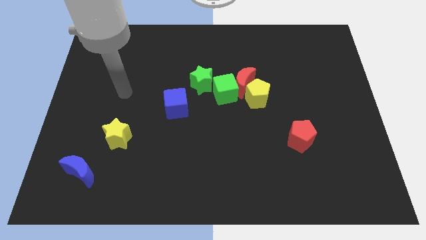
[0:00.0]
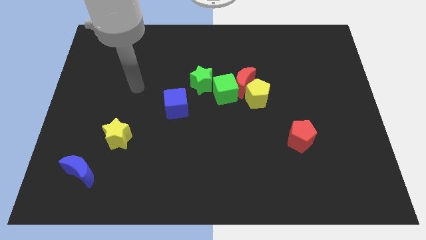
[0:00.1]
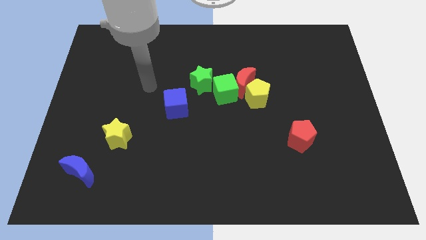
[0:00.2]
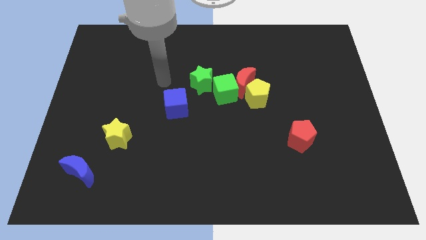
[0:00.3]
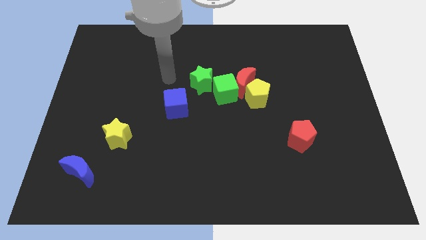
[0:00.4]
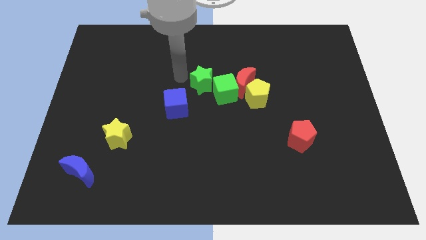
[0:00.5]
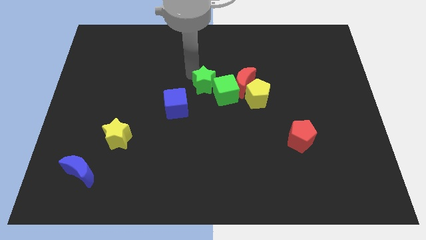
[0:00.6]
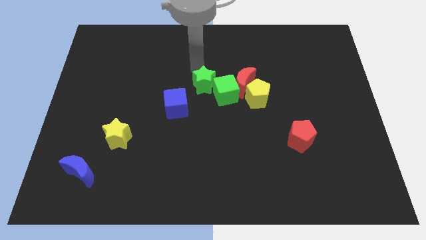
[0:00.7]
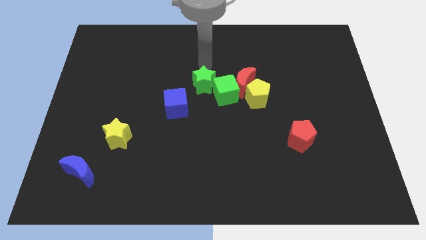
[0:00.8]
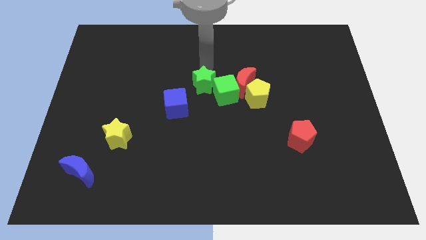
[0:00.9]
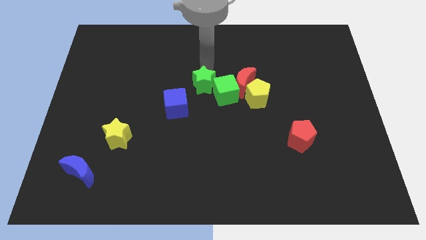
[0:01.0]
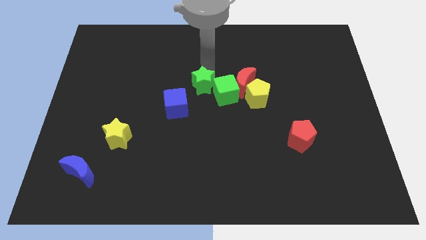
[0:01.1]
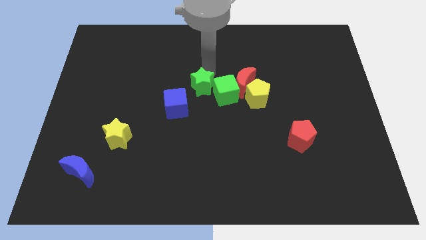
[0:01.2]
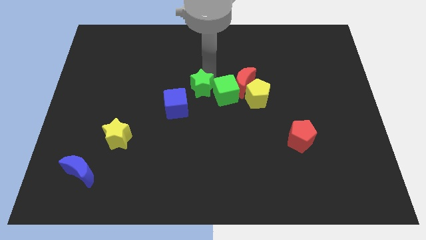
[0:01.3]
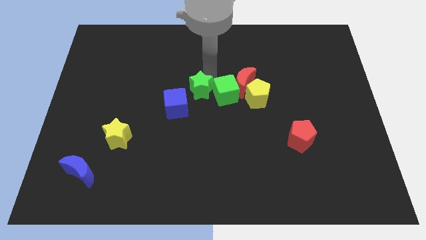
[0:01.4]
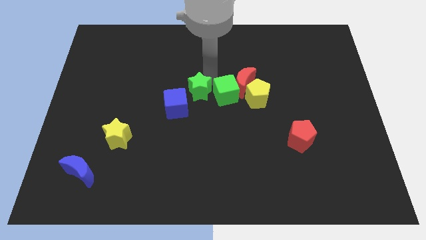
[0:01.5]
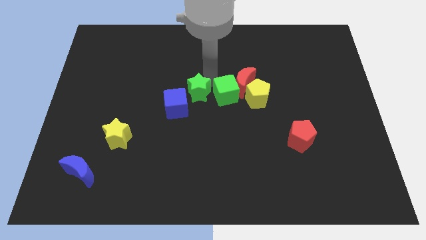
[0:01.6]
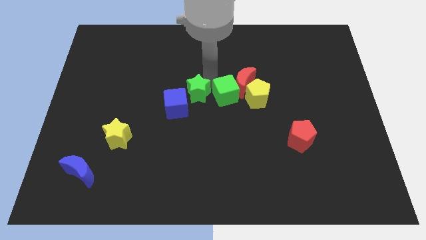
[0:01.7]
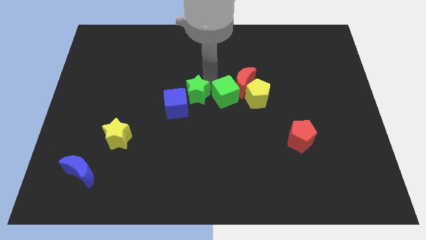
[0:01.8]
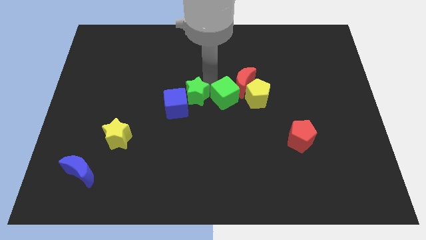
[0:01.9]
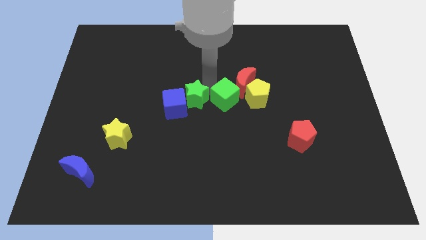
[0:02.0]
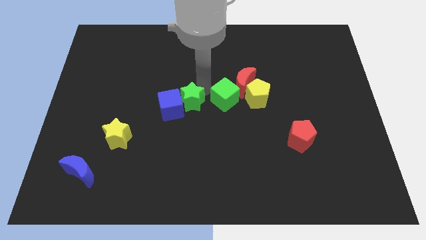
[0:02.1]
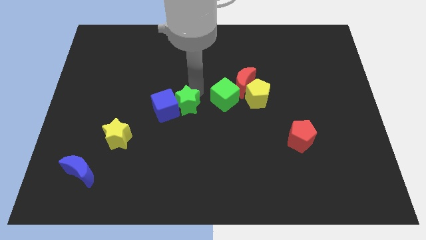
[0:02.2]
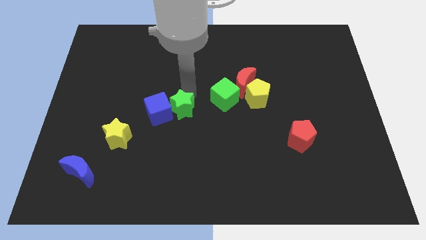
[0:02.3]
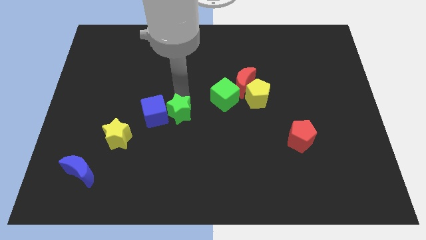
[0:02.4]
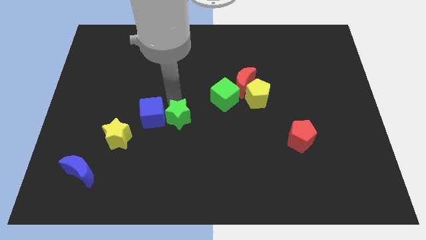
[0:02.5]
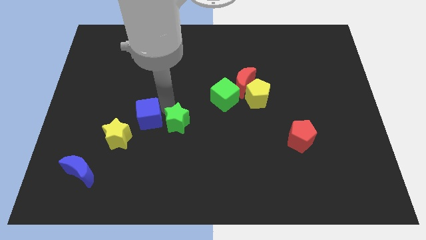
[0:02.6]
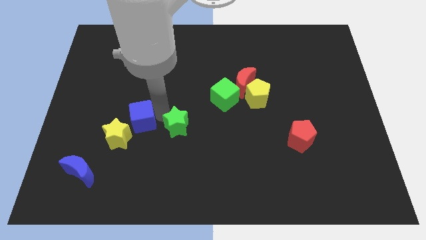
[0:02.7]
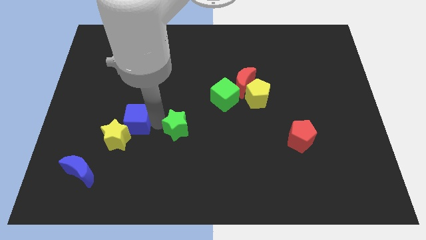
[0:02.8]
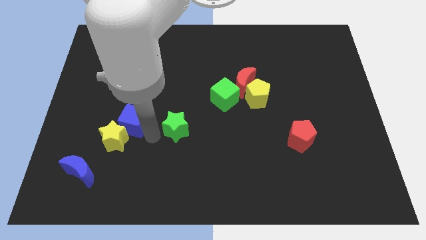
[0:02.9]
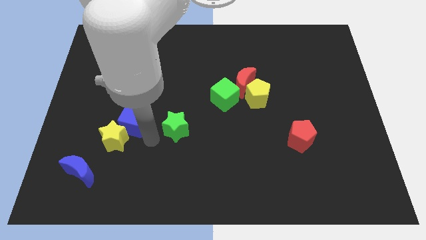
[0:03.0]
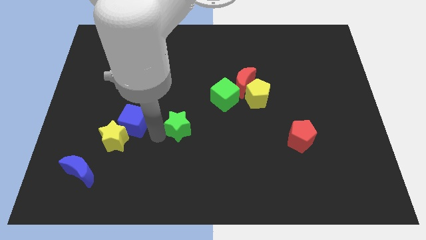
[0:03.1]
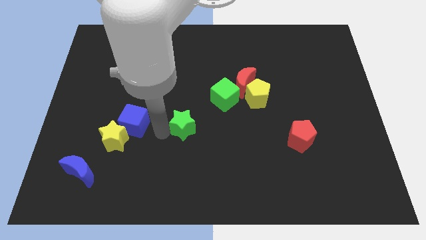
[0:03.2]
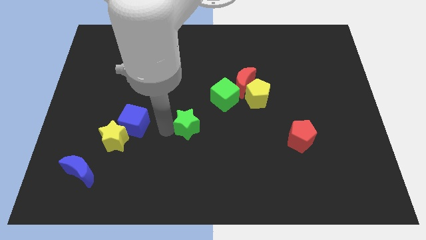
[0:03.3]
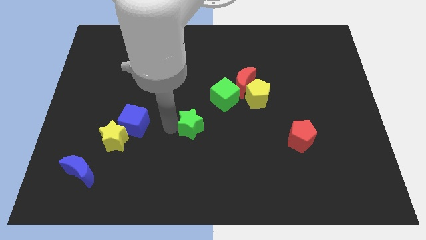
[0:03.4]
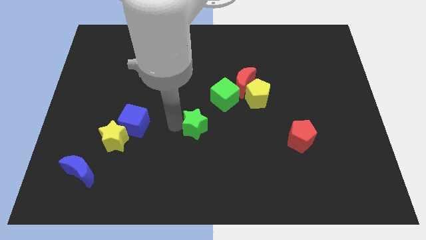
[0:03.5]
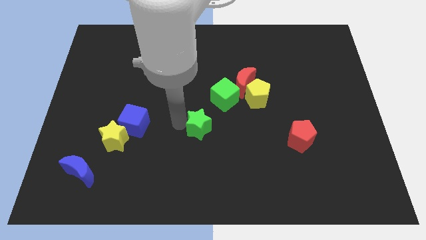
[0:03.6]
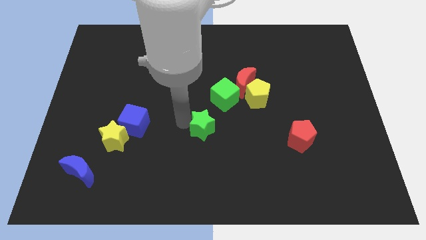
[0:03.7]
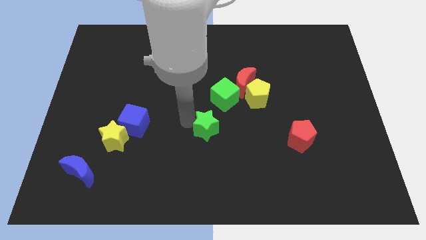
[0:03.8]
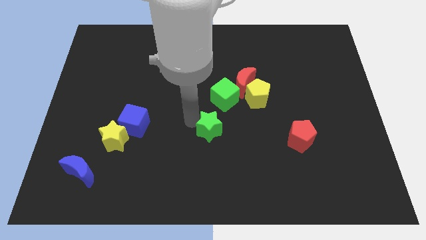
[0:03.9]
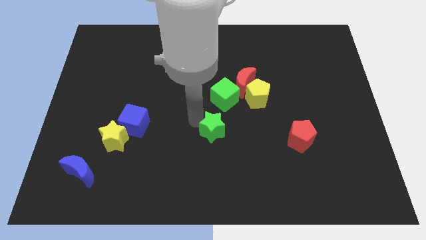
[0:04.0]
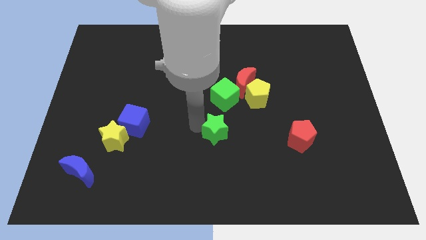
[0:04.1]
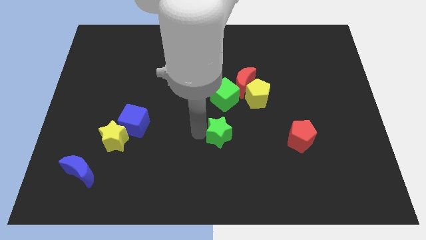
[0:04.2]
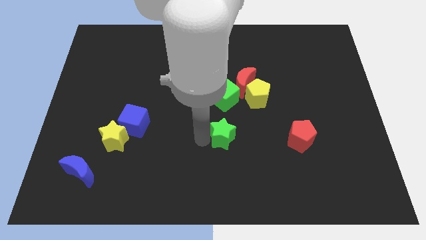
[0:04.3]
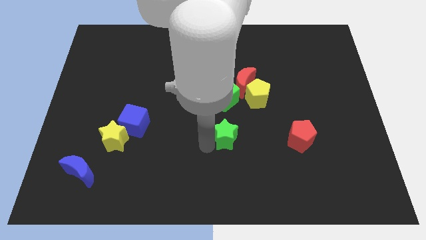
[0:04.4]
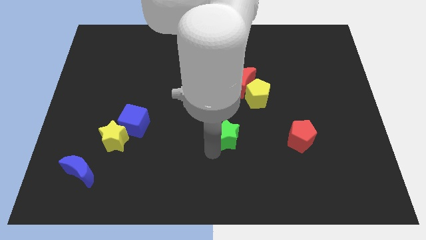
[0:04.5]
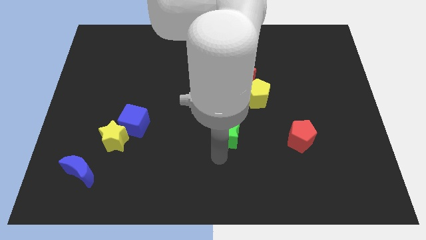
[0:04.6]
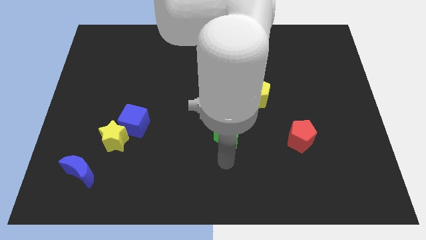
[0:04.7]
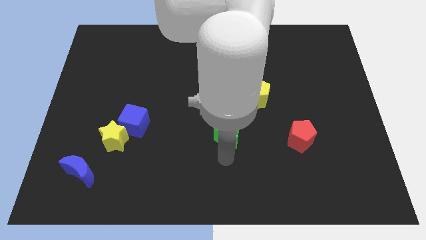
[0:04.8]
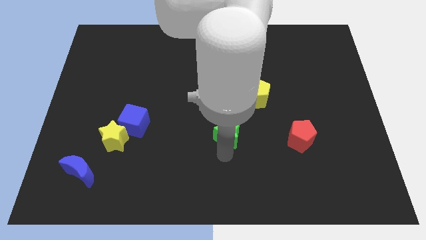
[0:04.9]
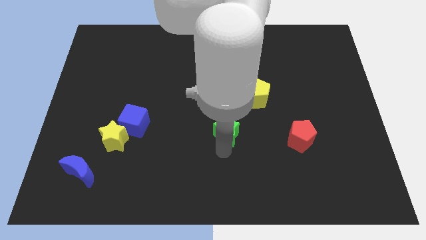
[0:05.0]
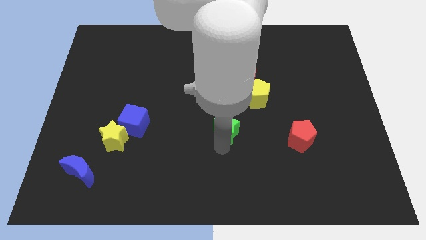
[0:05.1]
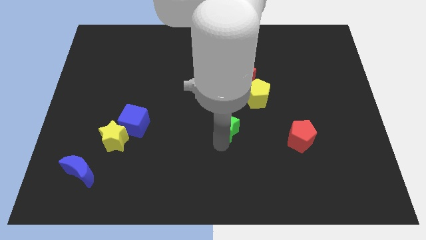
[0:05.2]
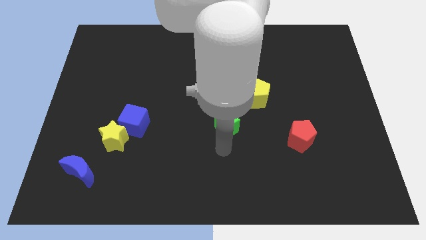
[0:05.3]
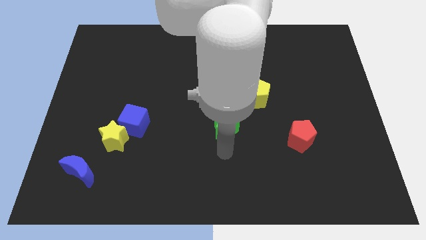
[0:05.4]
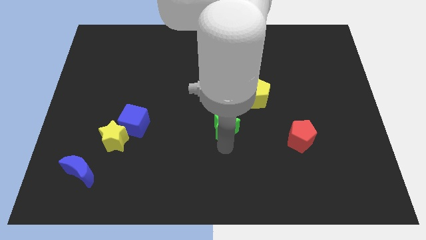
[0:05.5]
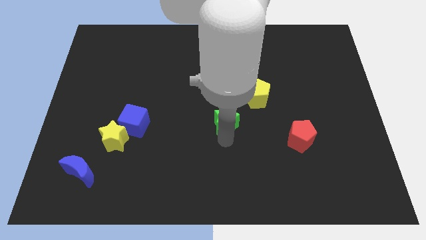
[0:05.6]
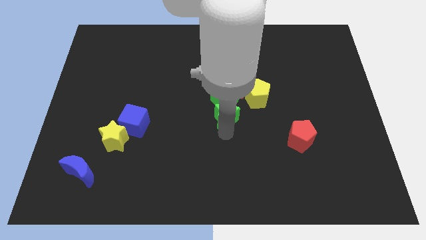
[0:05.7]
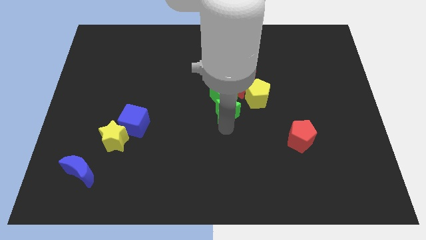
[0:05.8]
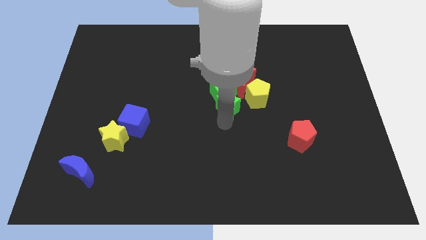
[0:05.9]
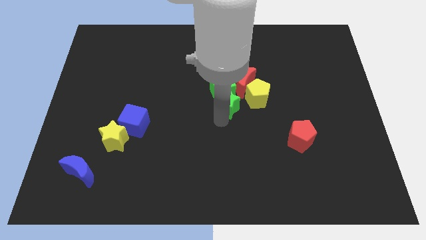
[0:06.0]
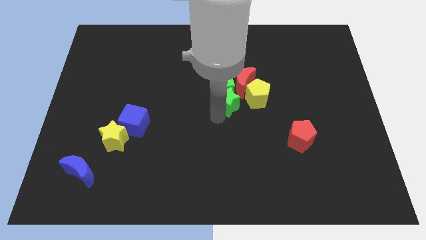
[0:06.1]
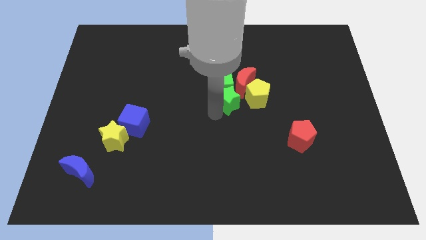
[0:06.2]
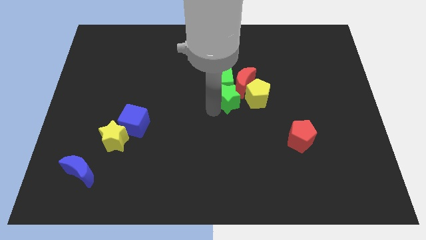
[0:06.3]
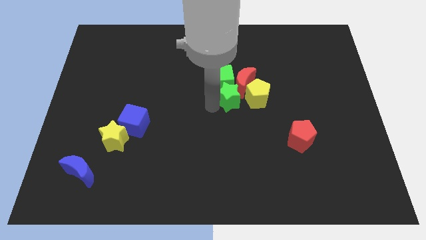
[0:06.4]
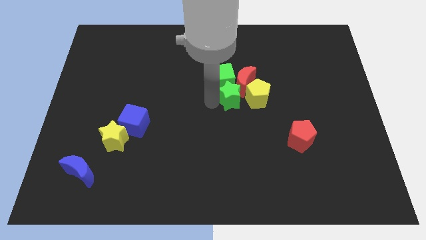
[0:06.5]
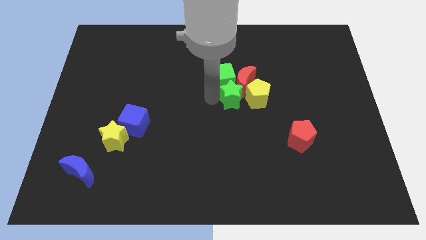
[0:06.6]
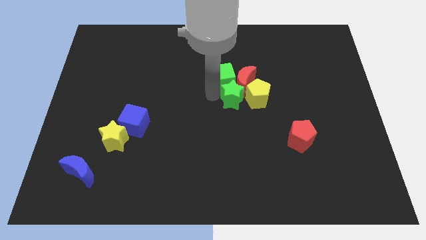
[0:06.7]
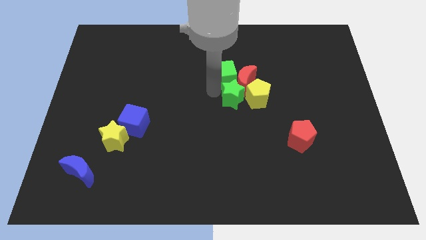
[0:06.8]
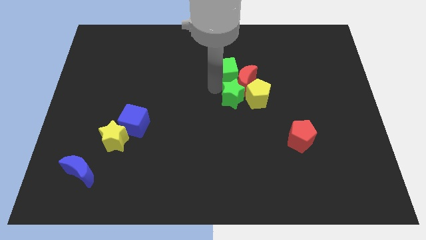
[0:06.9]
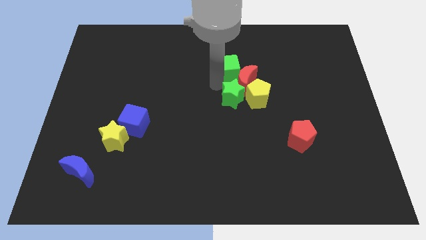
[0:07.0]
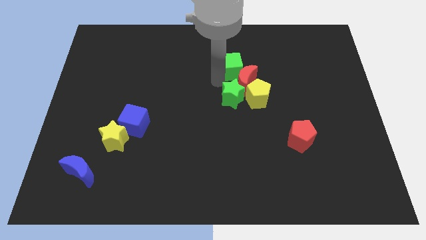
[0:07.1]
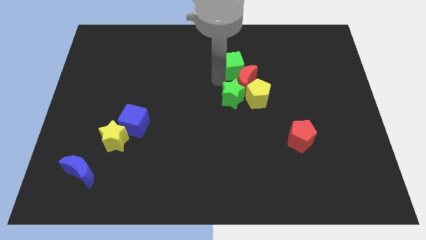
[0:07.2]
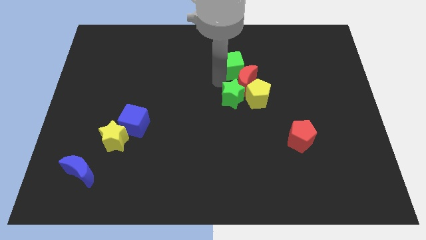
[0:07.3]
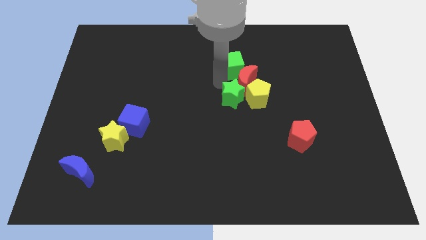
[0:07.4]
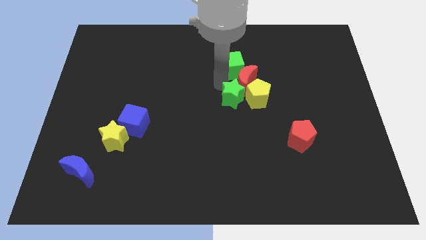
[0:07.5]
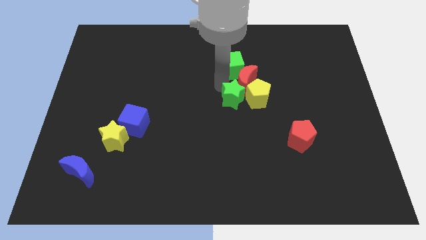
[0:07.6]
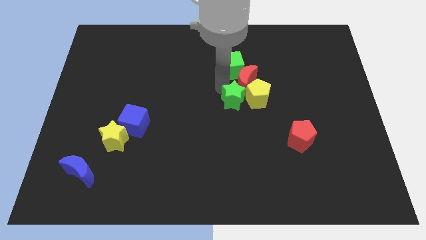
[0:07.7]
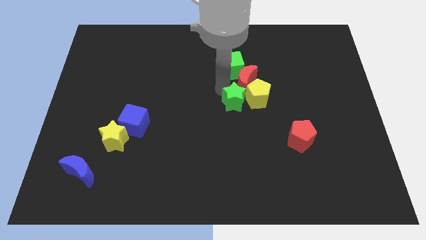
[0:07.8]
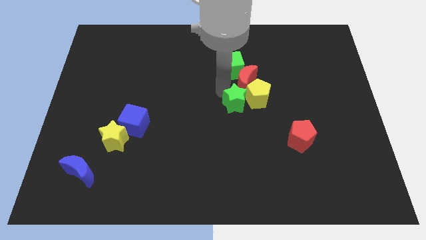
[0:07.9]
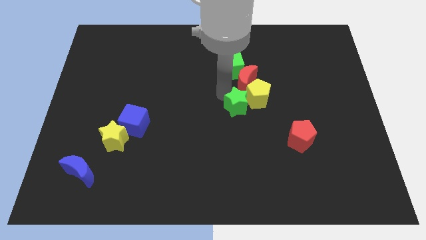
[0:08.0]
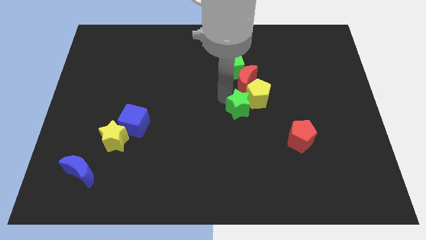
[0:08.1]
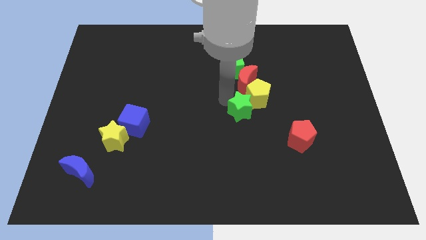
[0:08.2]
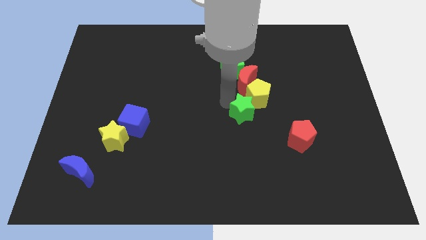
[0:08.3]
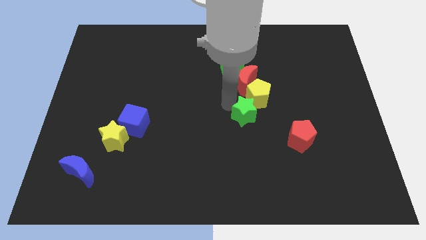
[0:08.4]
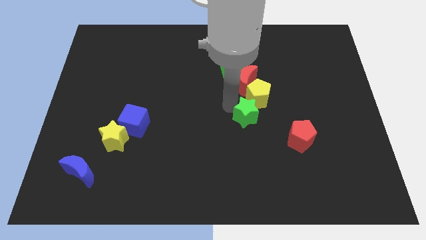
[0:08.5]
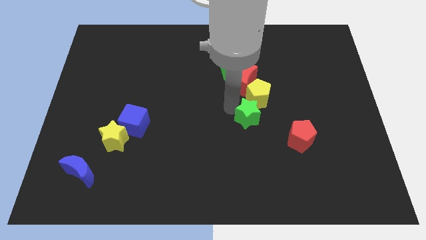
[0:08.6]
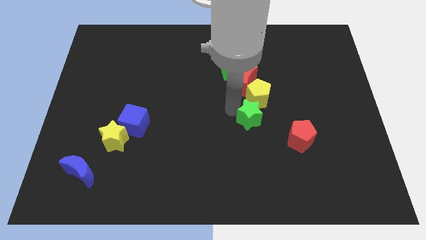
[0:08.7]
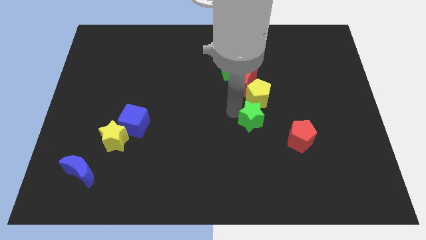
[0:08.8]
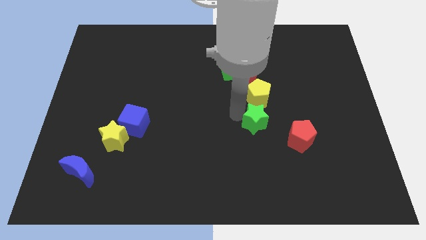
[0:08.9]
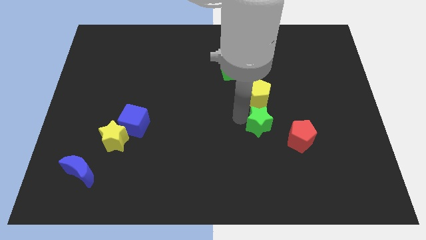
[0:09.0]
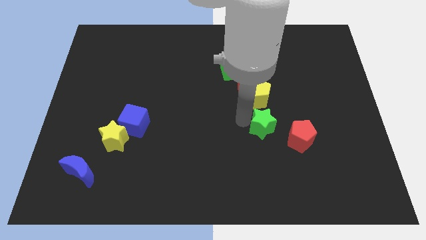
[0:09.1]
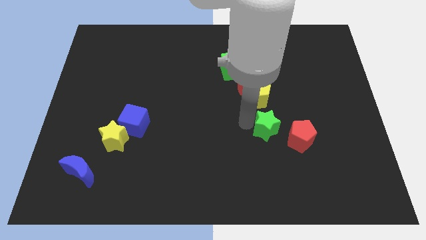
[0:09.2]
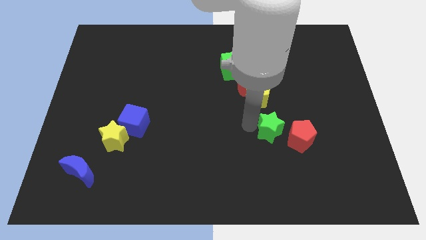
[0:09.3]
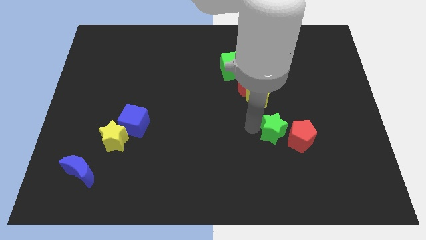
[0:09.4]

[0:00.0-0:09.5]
push the green star next to the red pentagon
